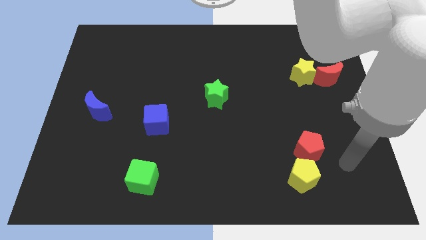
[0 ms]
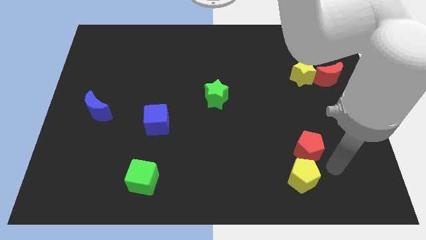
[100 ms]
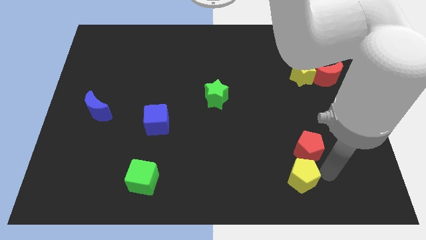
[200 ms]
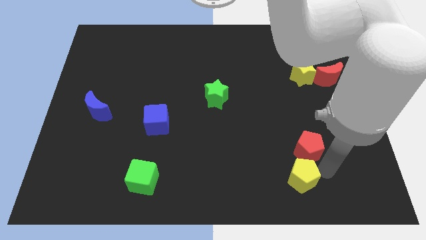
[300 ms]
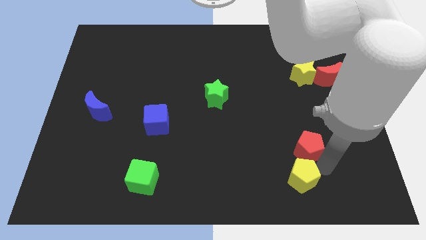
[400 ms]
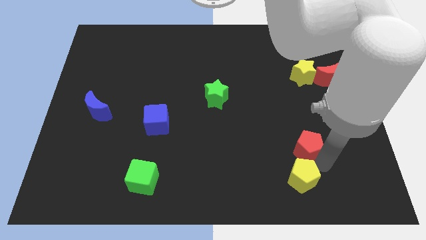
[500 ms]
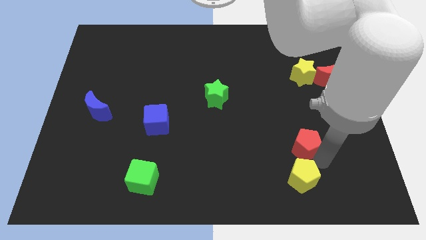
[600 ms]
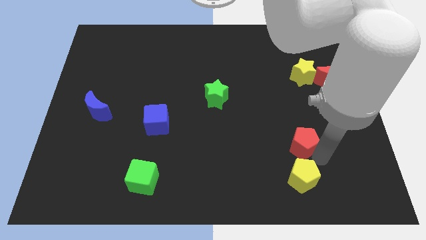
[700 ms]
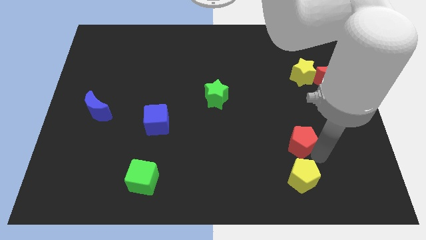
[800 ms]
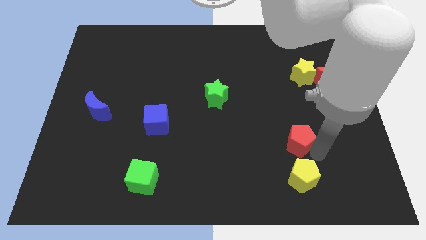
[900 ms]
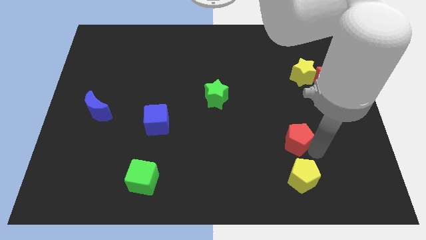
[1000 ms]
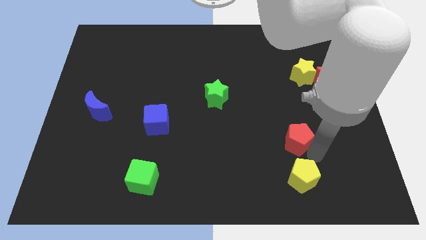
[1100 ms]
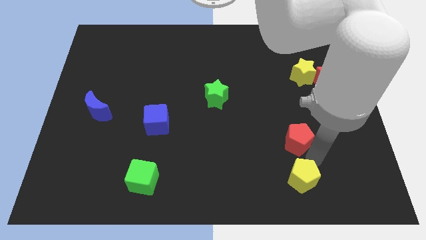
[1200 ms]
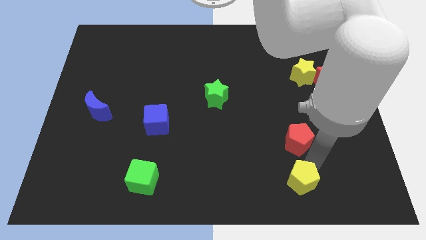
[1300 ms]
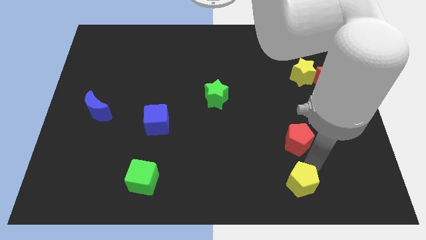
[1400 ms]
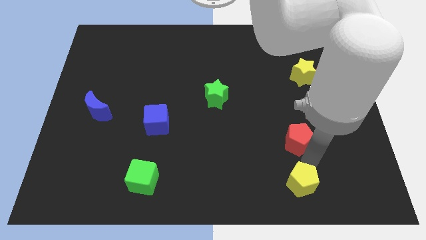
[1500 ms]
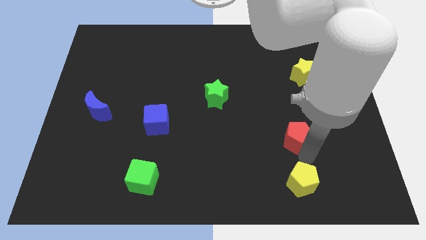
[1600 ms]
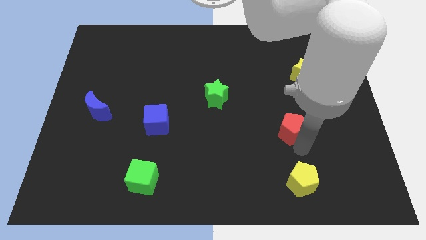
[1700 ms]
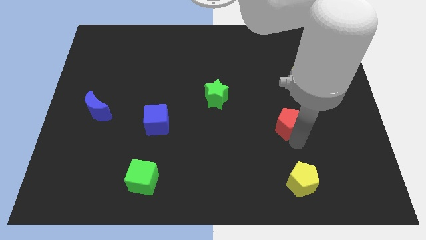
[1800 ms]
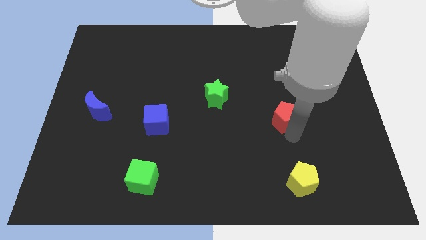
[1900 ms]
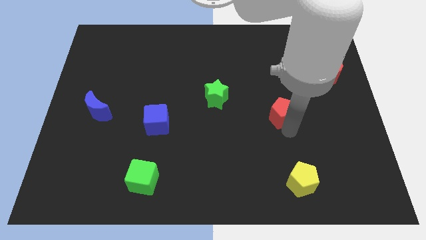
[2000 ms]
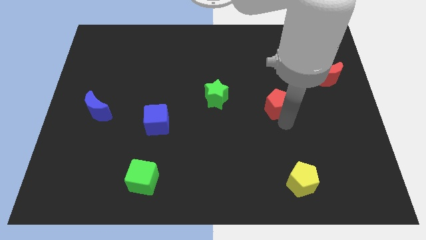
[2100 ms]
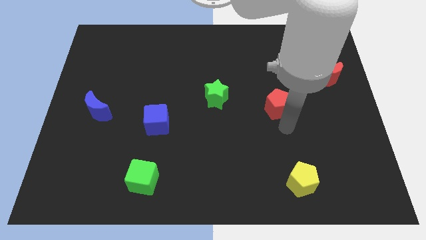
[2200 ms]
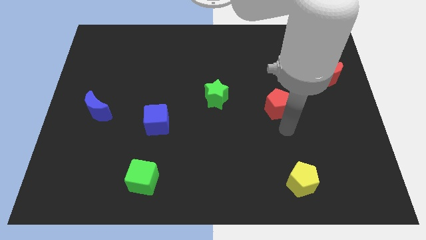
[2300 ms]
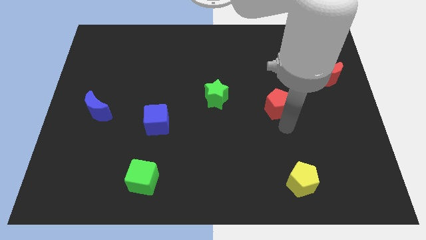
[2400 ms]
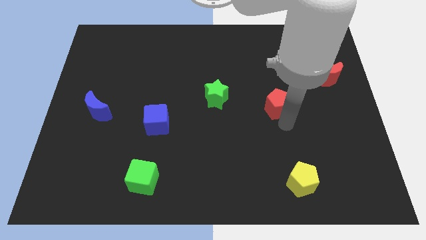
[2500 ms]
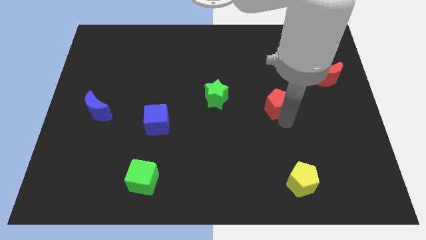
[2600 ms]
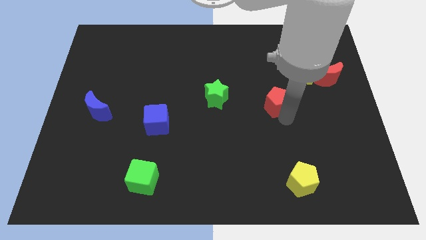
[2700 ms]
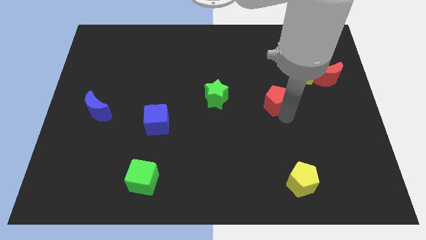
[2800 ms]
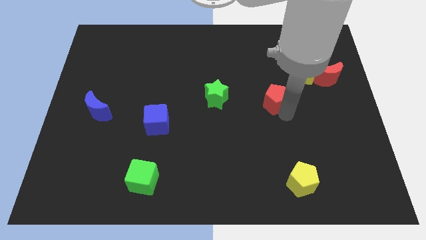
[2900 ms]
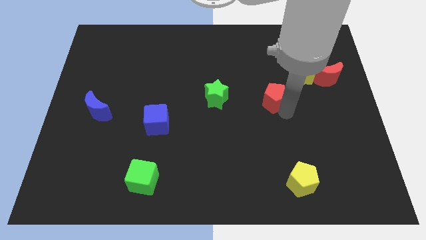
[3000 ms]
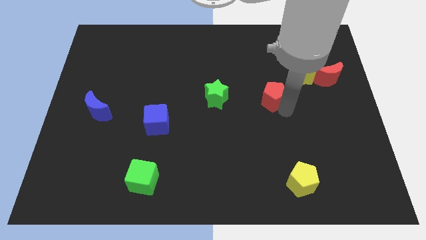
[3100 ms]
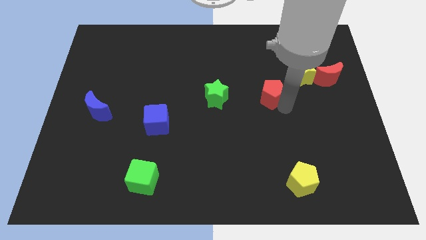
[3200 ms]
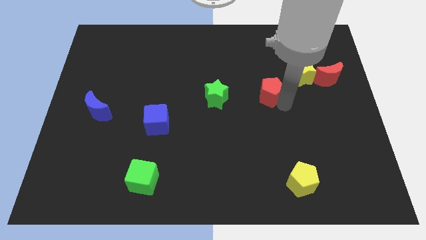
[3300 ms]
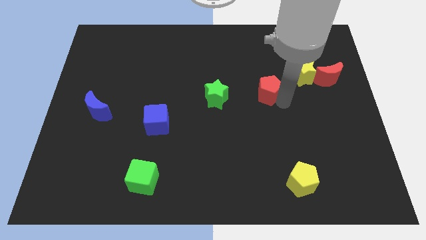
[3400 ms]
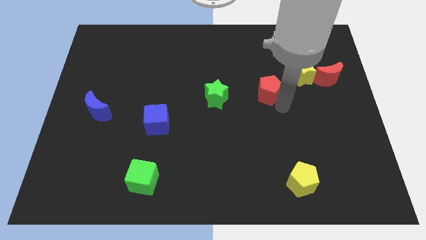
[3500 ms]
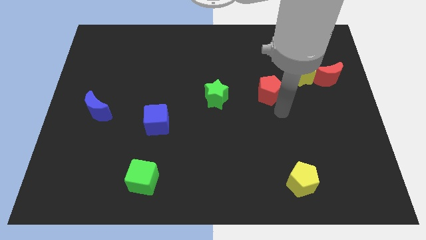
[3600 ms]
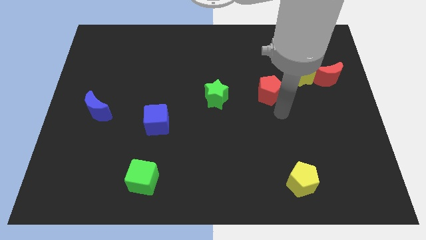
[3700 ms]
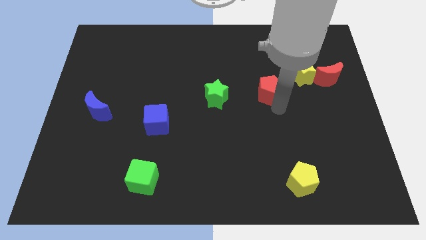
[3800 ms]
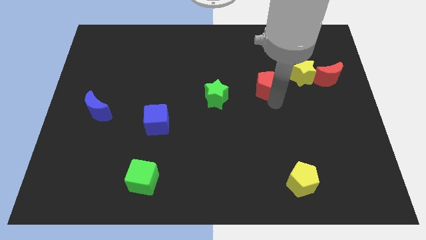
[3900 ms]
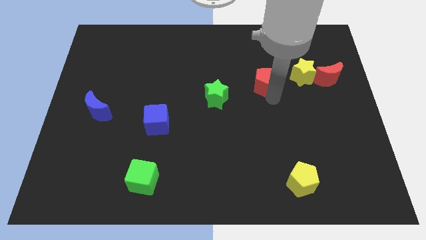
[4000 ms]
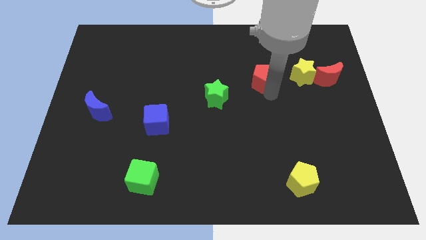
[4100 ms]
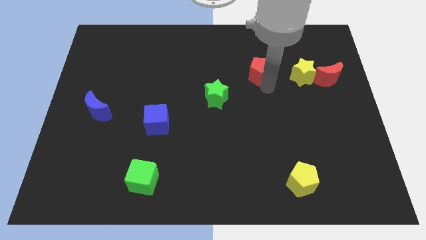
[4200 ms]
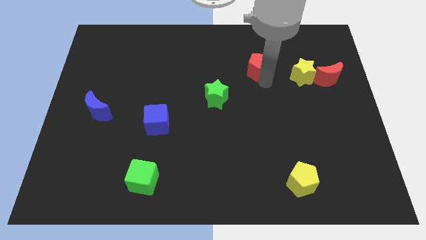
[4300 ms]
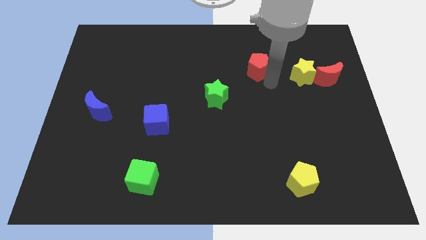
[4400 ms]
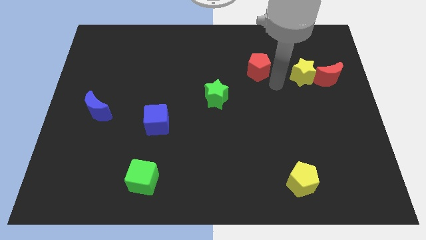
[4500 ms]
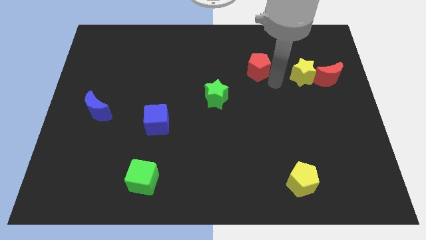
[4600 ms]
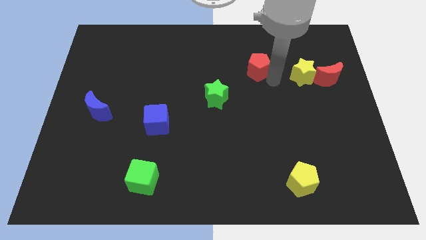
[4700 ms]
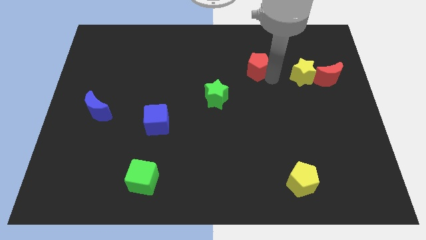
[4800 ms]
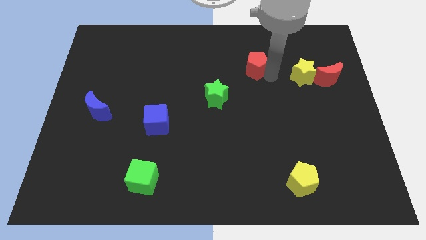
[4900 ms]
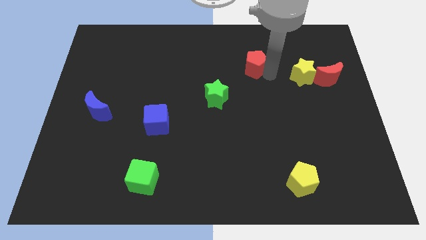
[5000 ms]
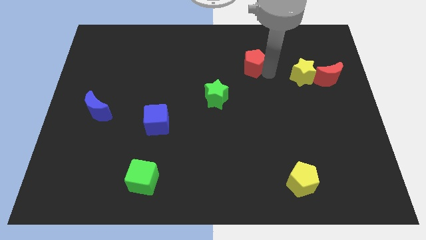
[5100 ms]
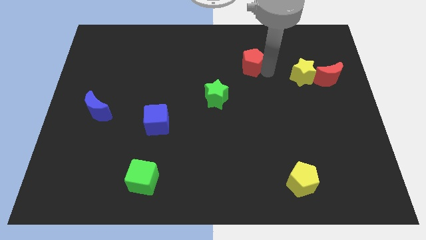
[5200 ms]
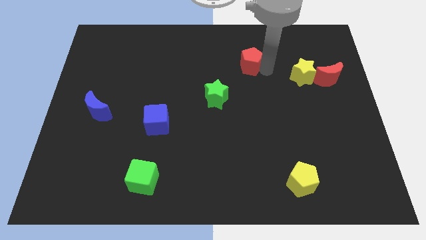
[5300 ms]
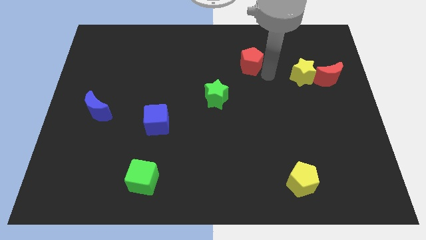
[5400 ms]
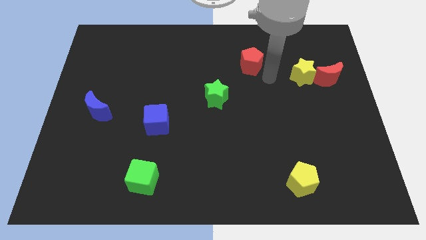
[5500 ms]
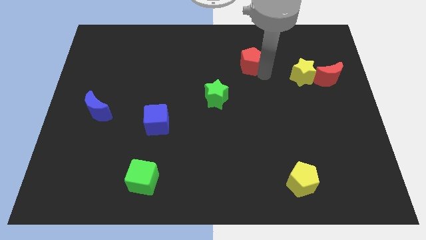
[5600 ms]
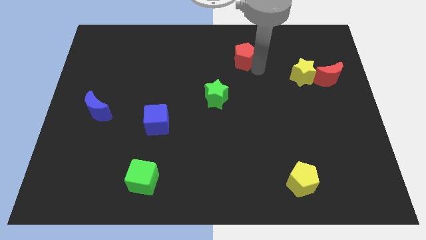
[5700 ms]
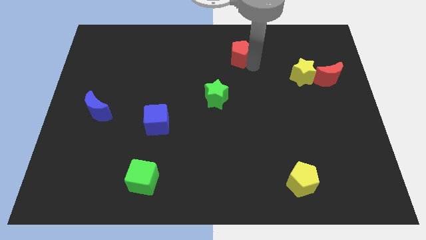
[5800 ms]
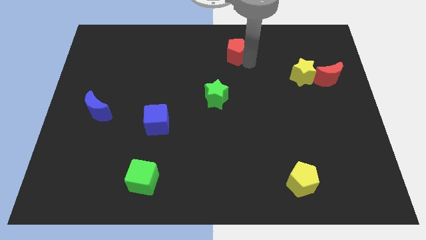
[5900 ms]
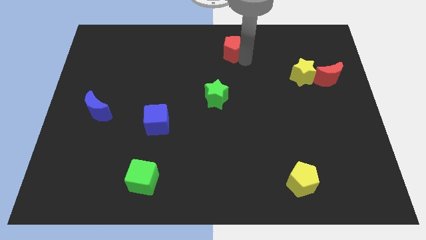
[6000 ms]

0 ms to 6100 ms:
move the red pentagon to the top

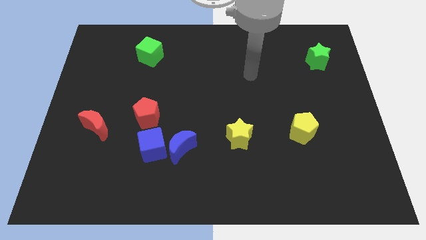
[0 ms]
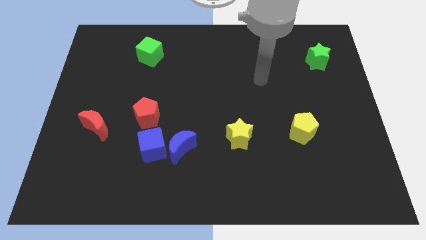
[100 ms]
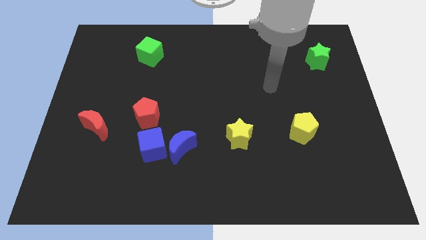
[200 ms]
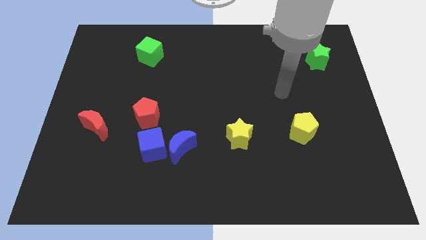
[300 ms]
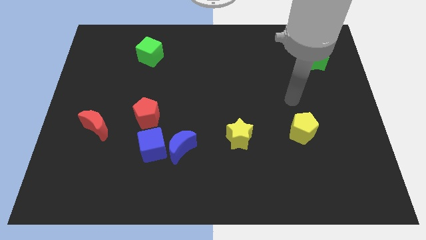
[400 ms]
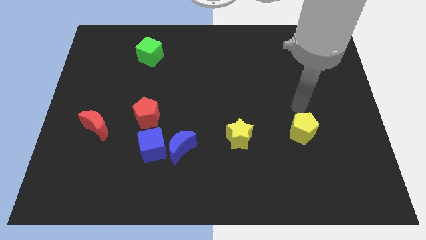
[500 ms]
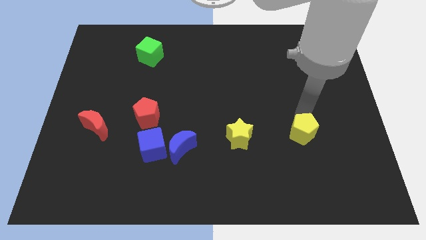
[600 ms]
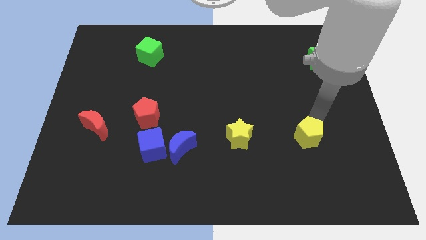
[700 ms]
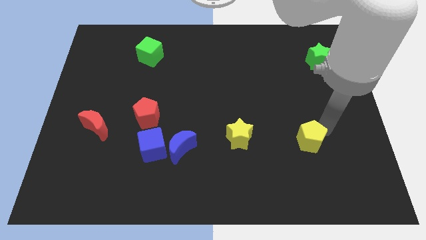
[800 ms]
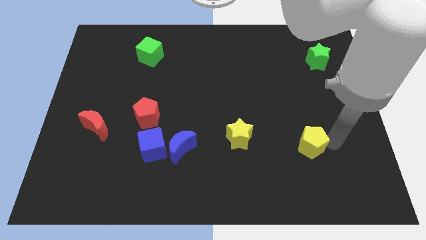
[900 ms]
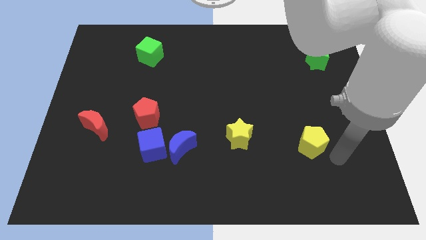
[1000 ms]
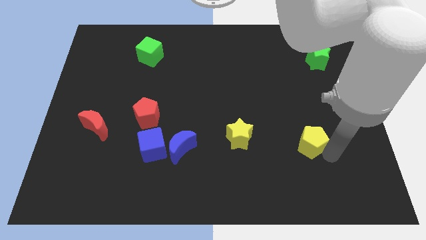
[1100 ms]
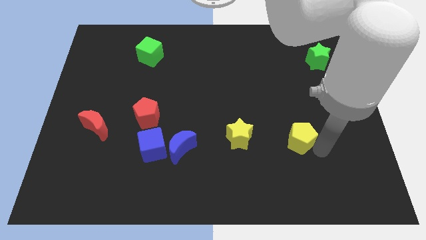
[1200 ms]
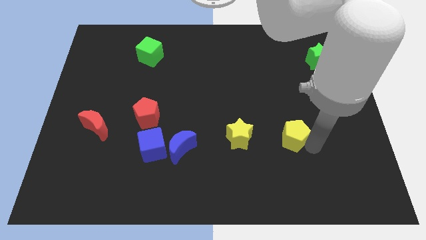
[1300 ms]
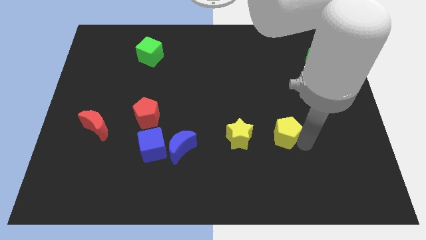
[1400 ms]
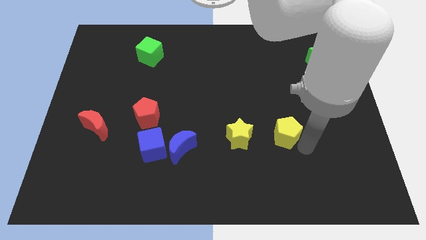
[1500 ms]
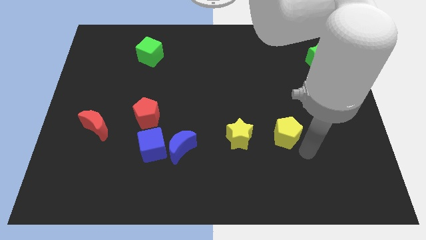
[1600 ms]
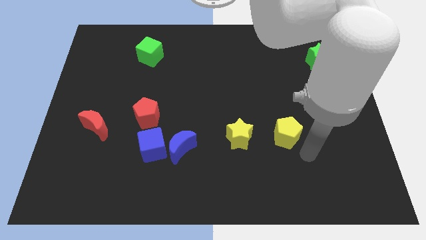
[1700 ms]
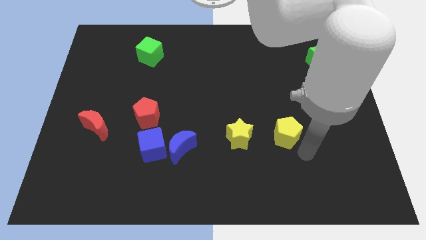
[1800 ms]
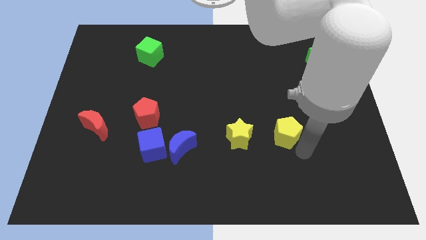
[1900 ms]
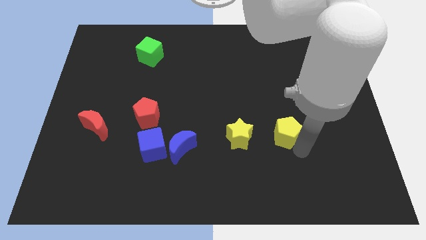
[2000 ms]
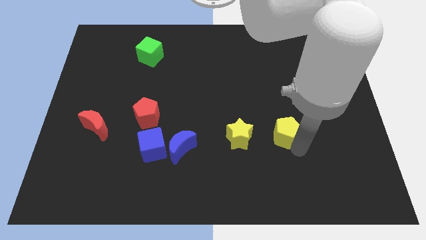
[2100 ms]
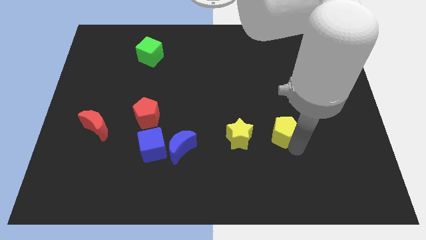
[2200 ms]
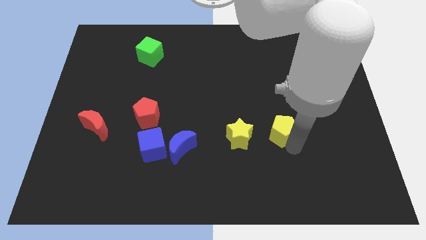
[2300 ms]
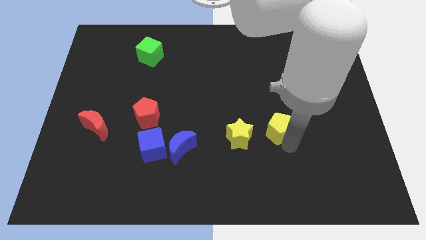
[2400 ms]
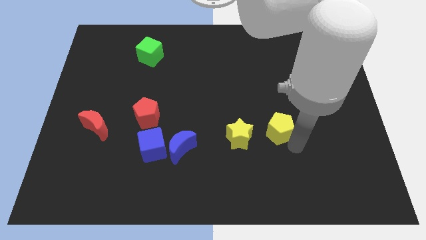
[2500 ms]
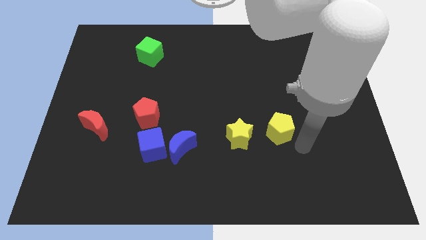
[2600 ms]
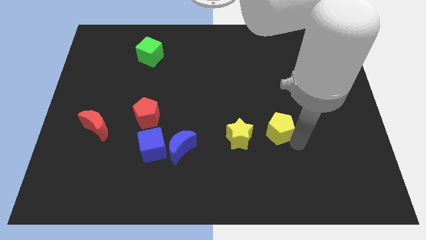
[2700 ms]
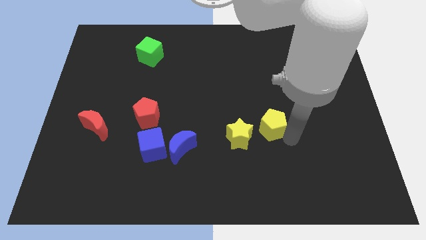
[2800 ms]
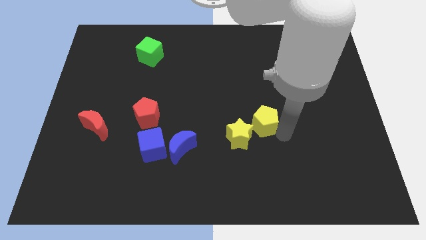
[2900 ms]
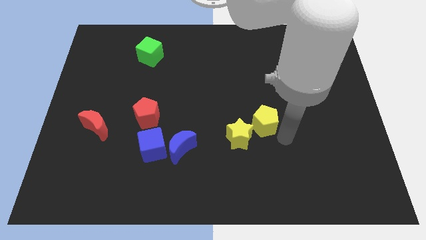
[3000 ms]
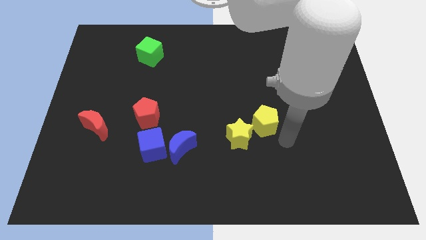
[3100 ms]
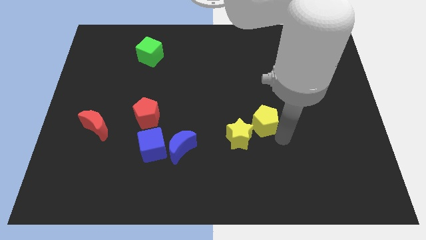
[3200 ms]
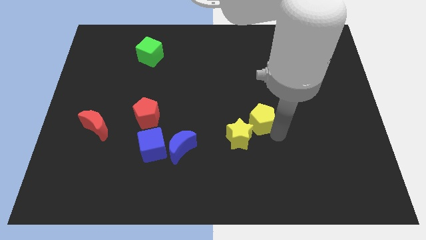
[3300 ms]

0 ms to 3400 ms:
put the yellow pentagon to the center
